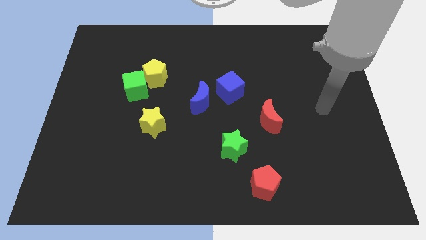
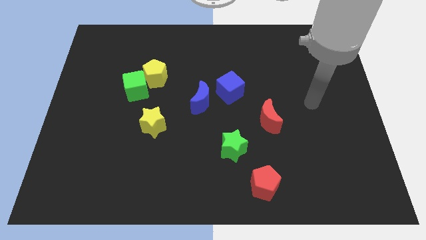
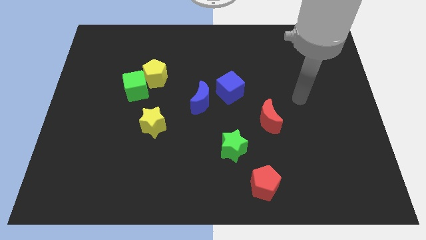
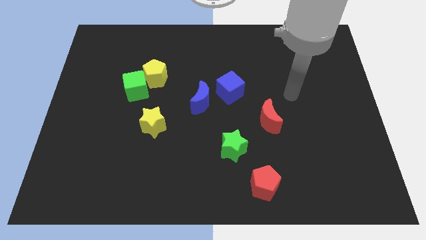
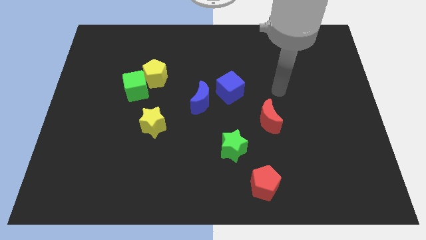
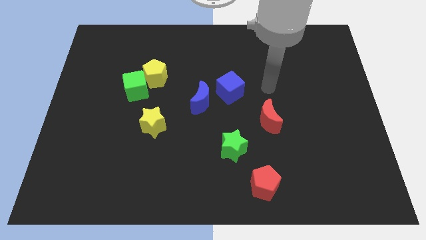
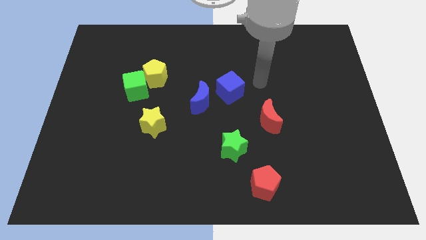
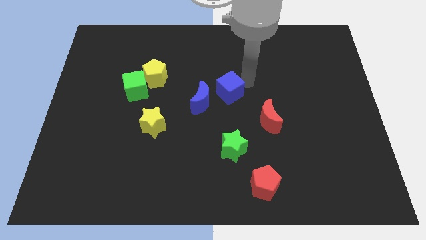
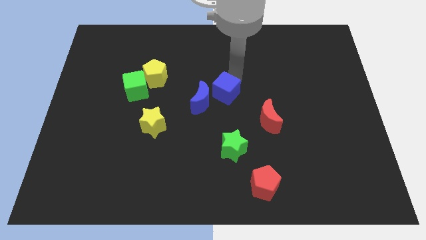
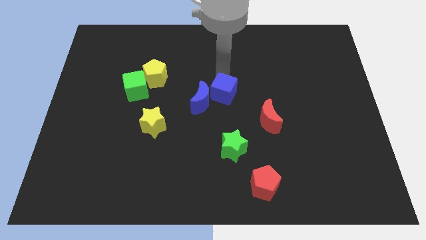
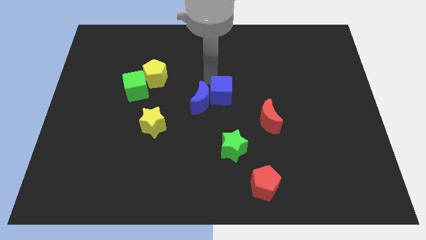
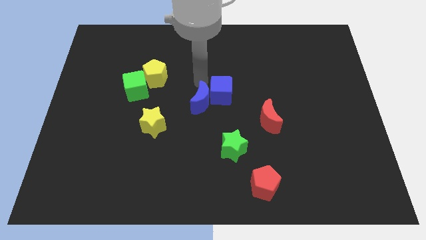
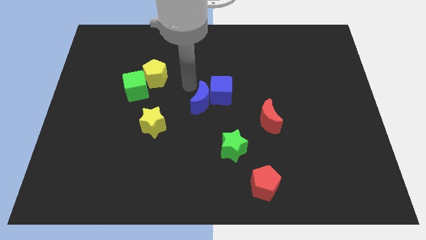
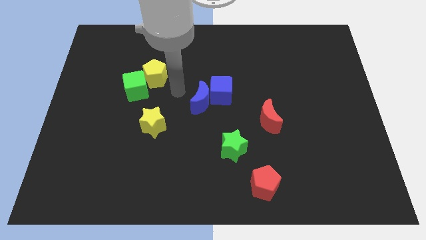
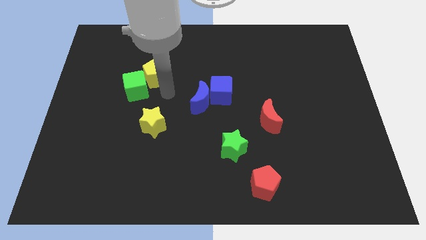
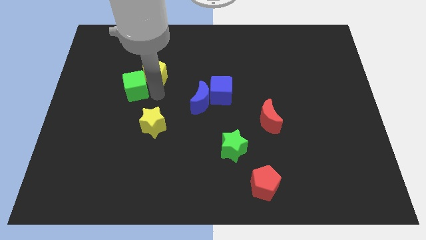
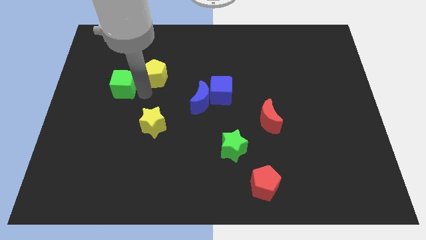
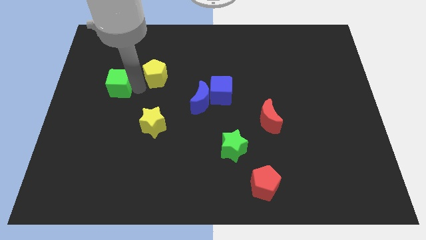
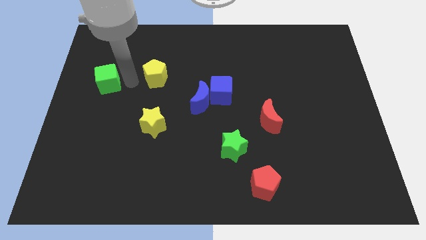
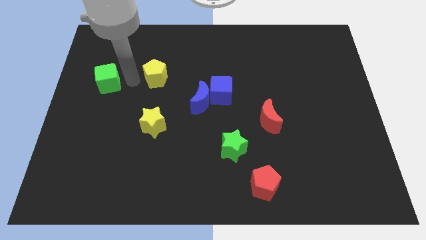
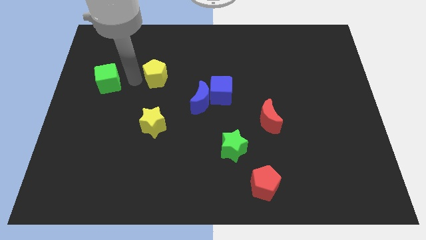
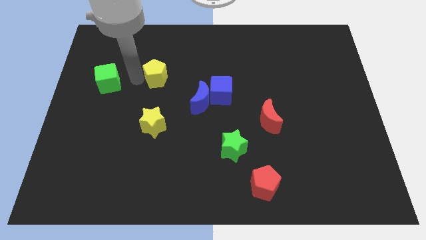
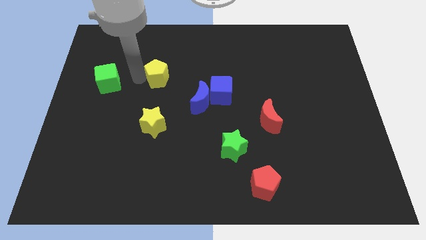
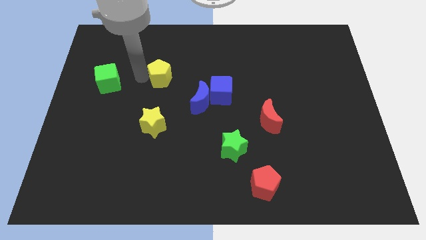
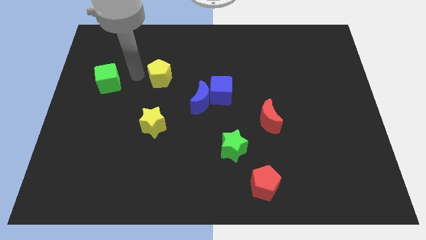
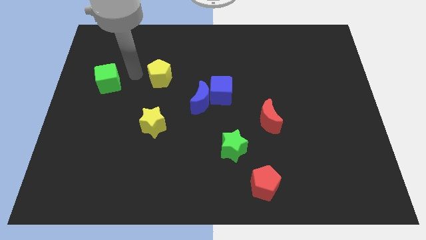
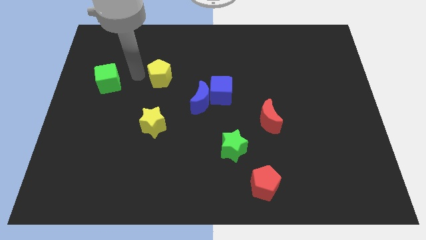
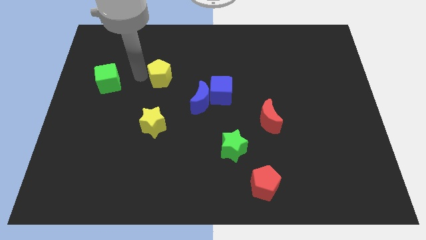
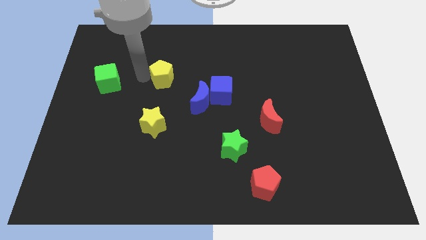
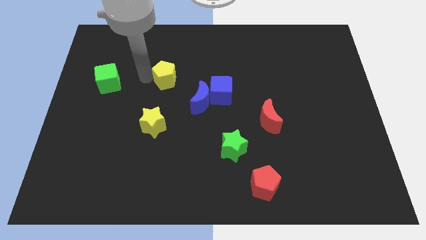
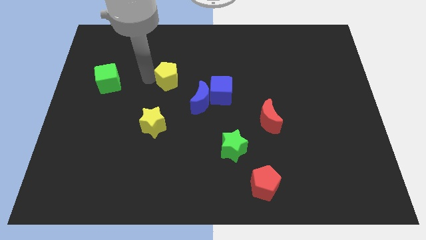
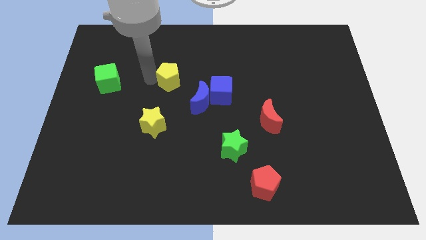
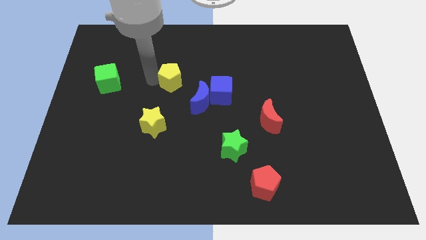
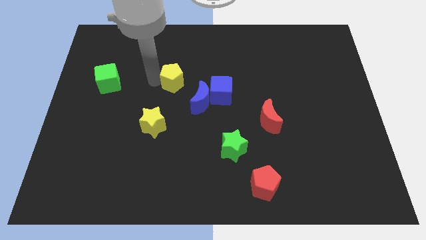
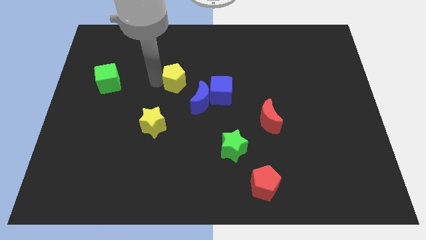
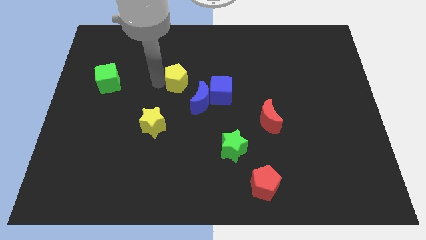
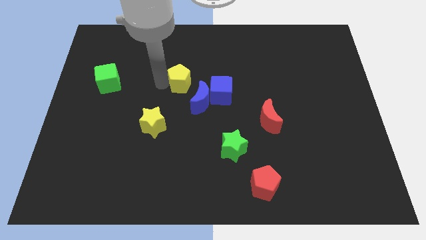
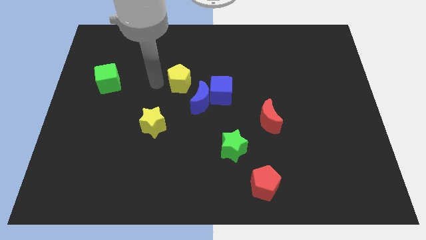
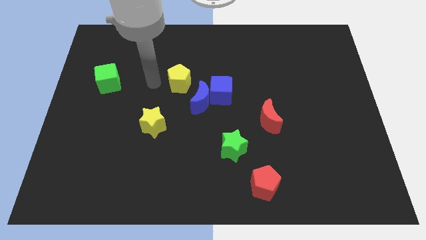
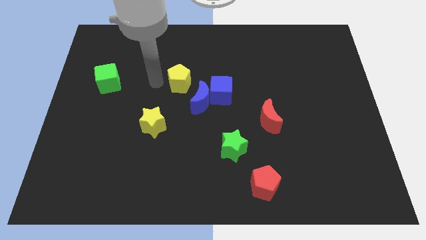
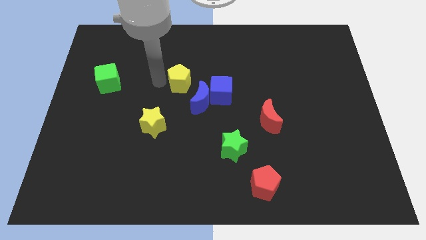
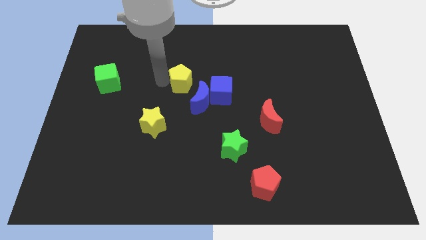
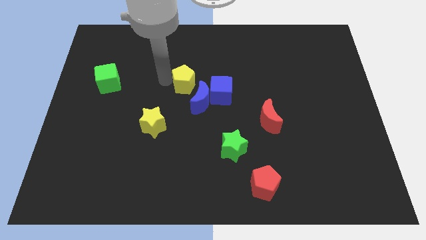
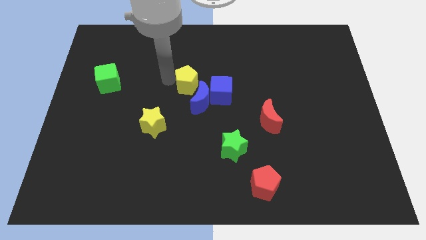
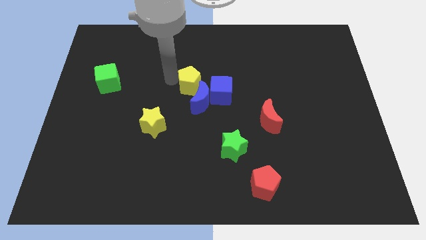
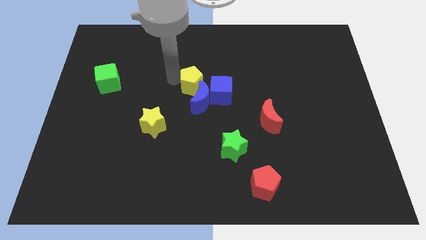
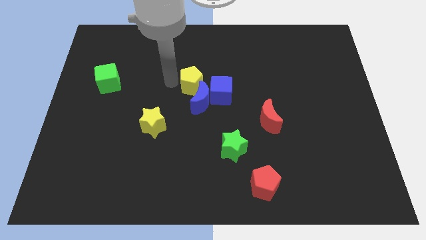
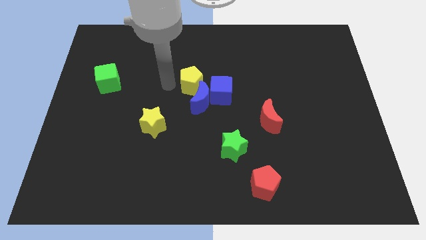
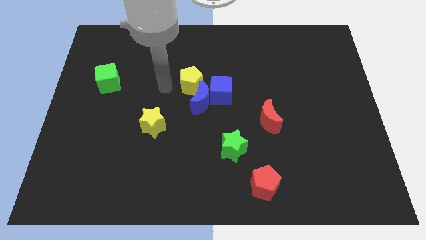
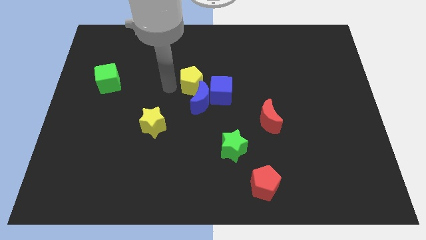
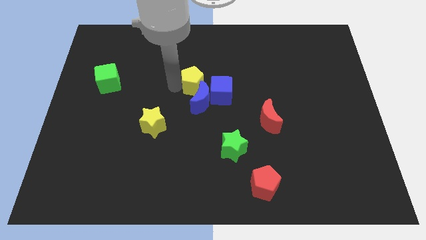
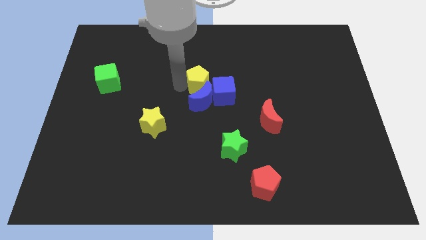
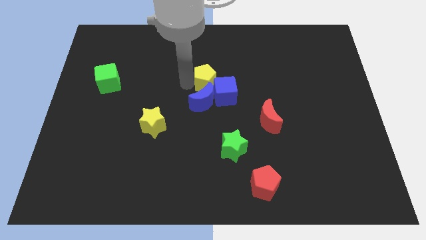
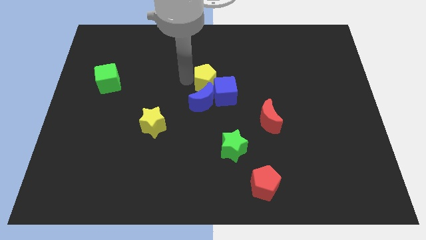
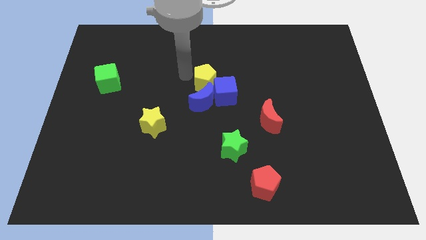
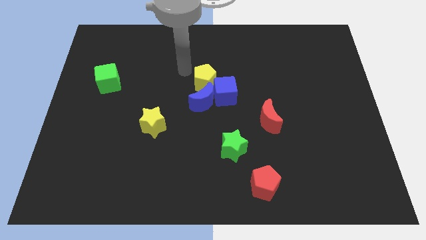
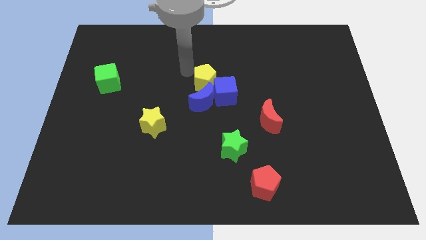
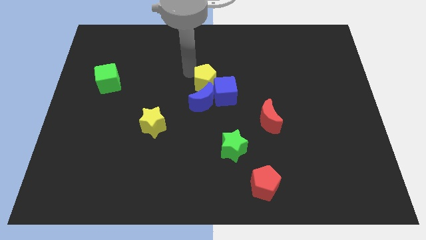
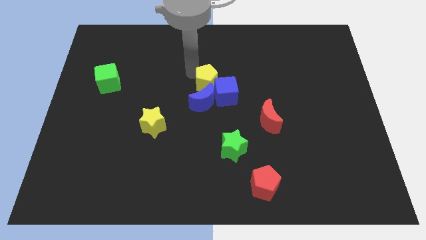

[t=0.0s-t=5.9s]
slide the yellow pentagon to the blue cube
